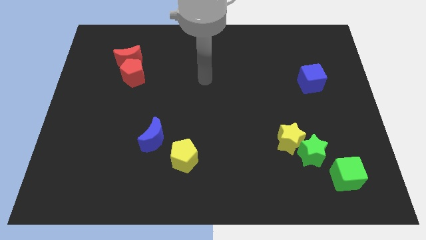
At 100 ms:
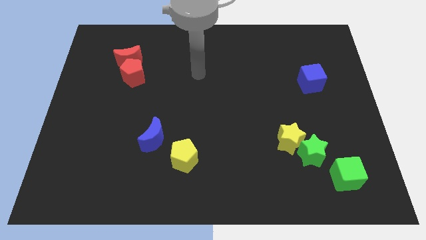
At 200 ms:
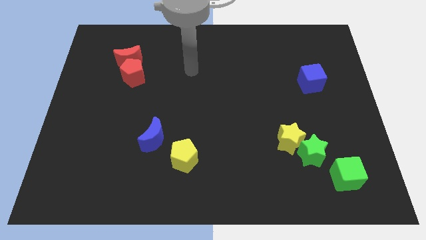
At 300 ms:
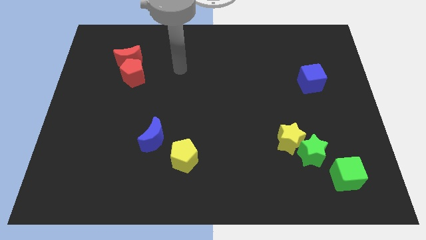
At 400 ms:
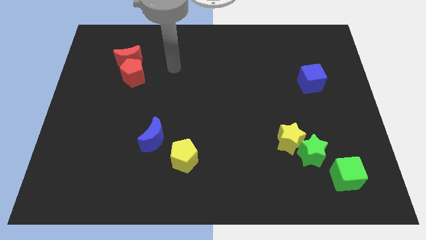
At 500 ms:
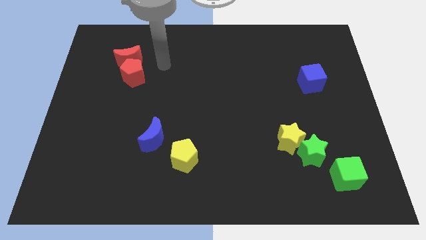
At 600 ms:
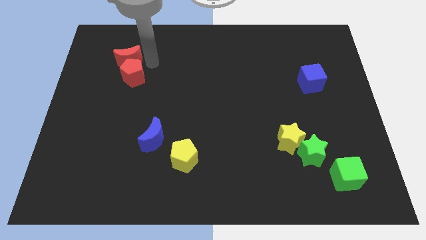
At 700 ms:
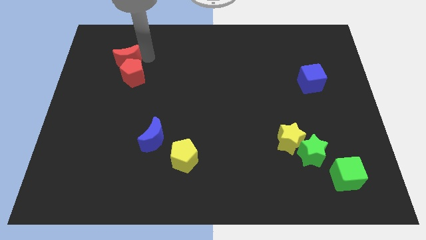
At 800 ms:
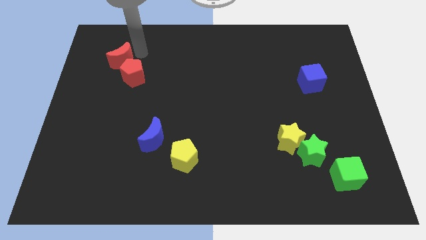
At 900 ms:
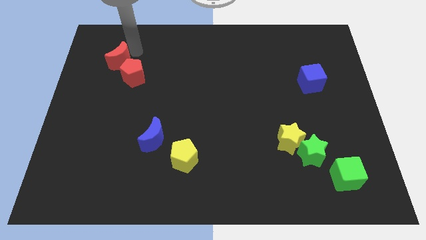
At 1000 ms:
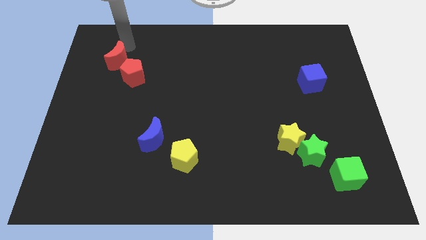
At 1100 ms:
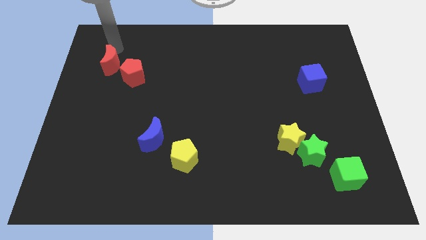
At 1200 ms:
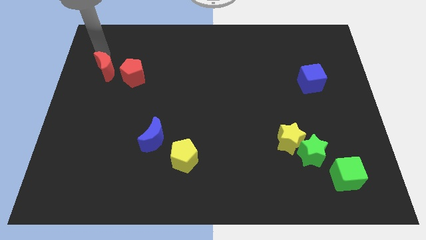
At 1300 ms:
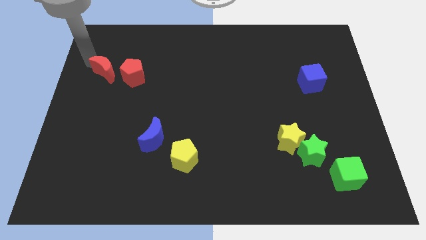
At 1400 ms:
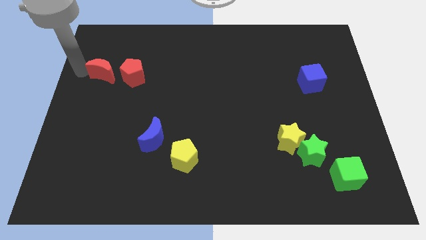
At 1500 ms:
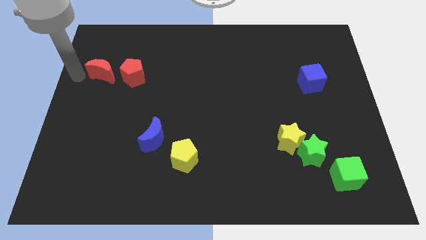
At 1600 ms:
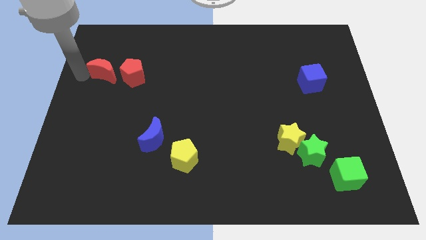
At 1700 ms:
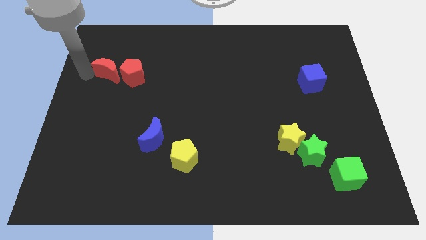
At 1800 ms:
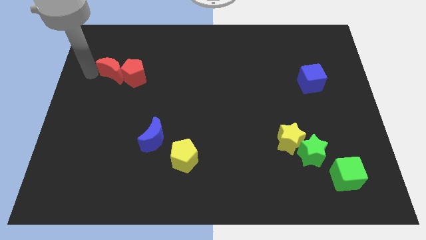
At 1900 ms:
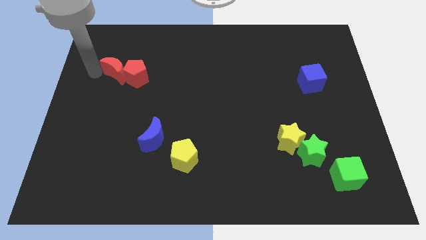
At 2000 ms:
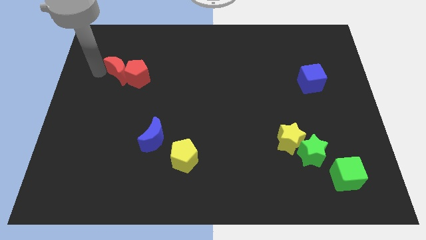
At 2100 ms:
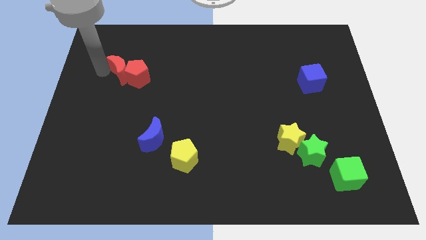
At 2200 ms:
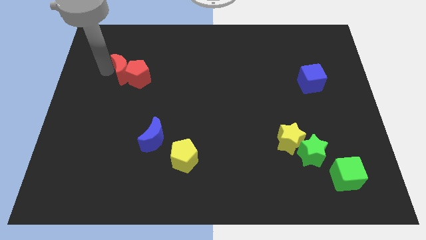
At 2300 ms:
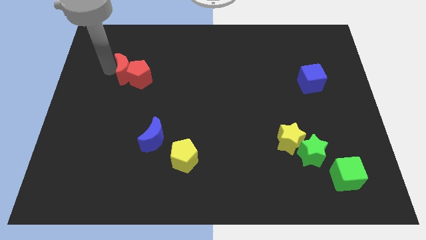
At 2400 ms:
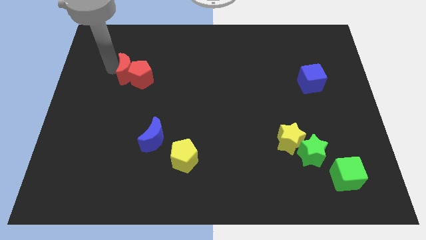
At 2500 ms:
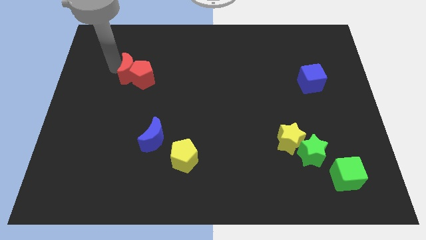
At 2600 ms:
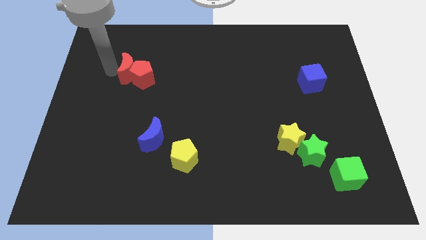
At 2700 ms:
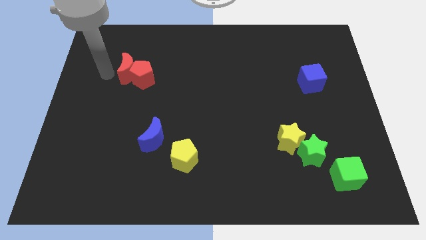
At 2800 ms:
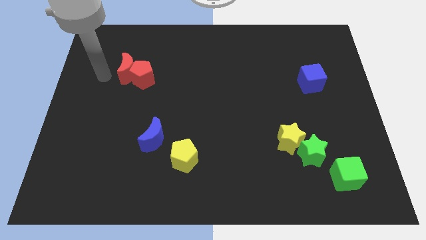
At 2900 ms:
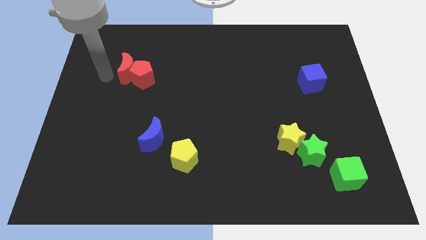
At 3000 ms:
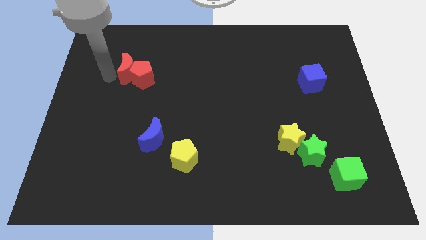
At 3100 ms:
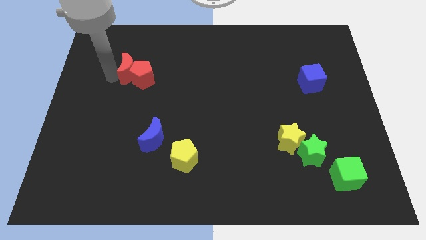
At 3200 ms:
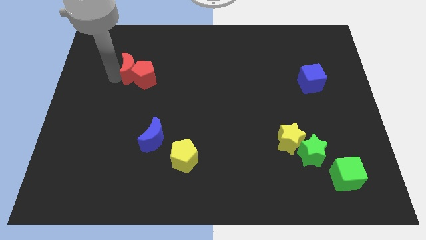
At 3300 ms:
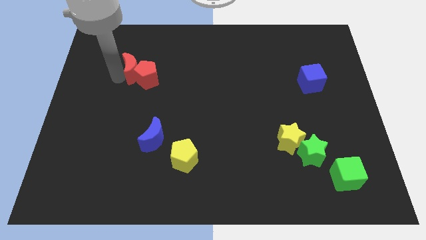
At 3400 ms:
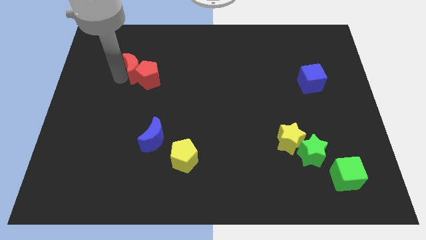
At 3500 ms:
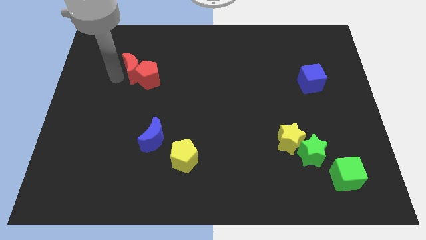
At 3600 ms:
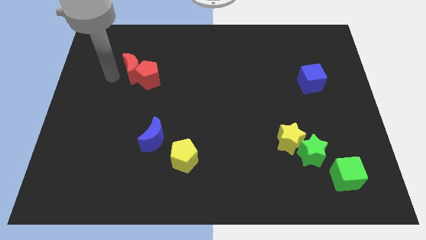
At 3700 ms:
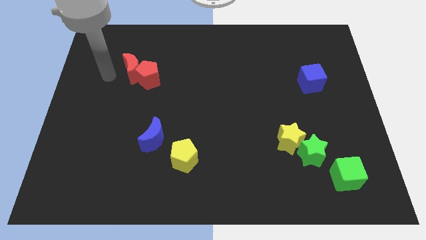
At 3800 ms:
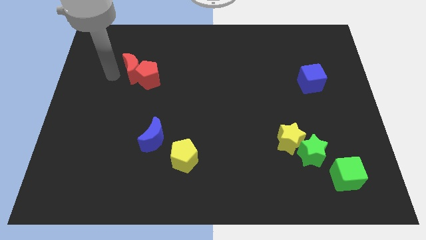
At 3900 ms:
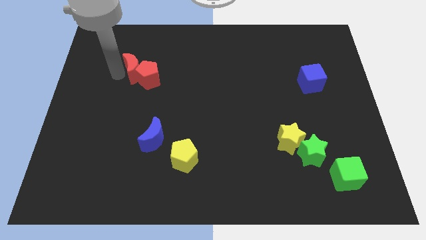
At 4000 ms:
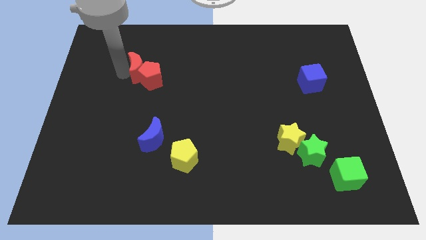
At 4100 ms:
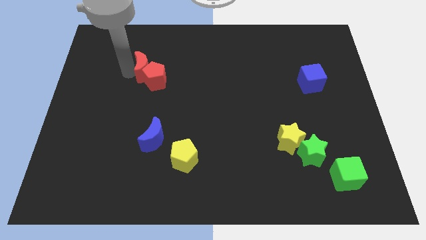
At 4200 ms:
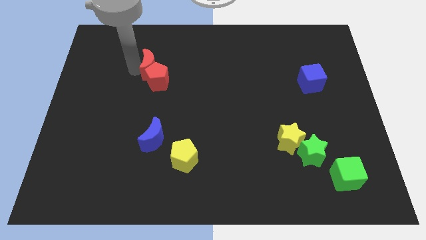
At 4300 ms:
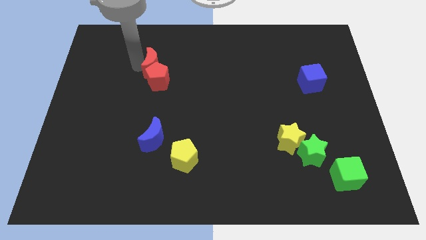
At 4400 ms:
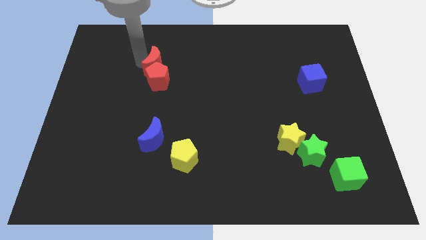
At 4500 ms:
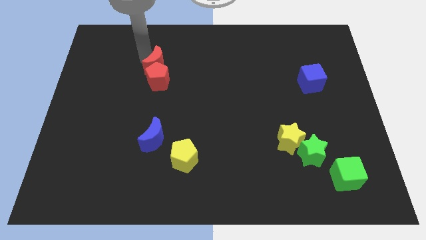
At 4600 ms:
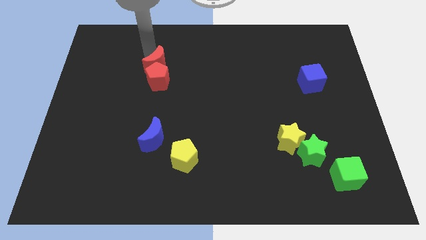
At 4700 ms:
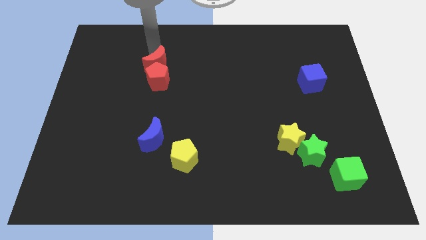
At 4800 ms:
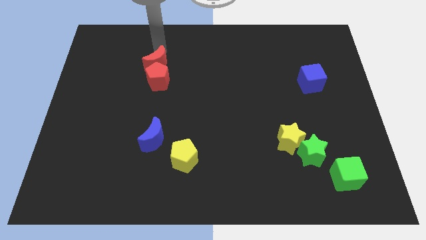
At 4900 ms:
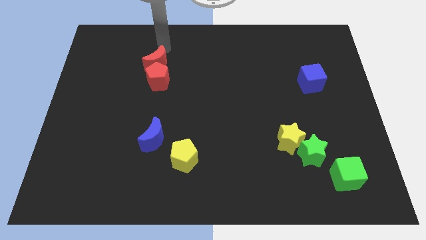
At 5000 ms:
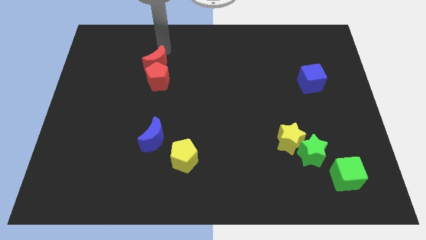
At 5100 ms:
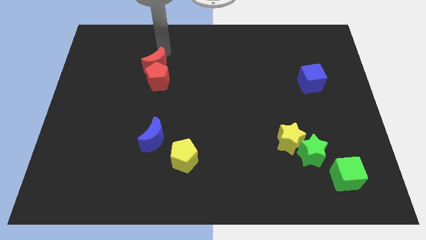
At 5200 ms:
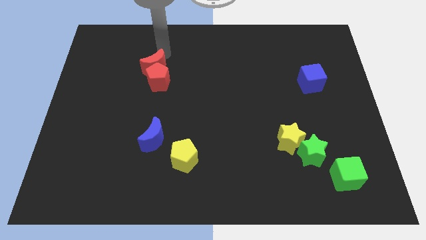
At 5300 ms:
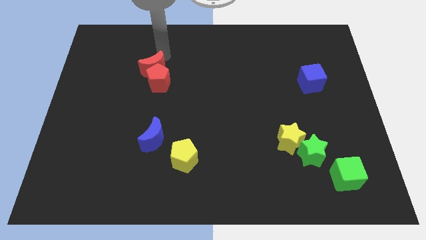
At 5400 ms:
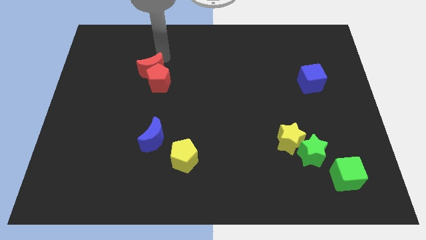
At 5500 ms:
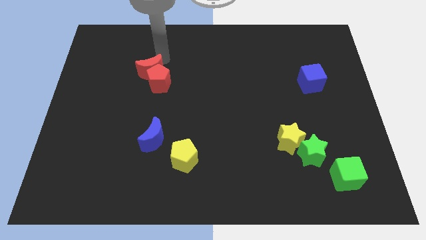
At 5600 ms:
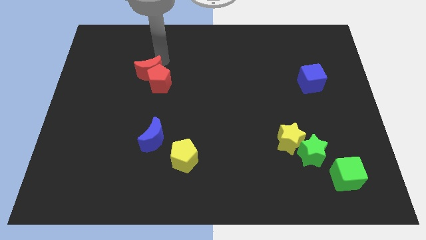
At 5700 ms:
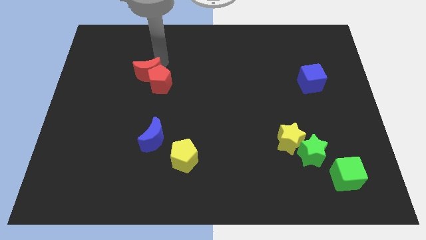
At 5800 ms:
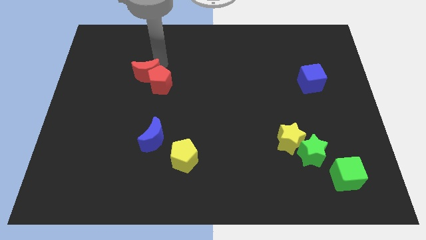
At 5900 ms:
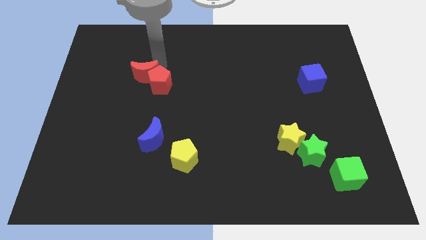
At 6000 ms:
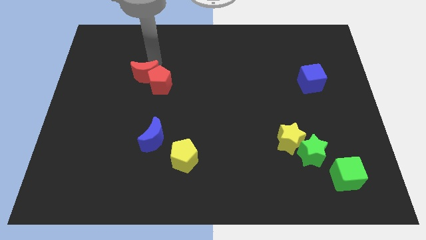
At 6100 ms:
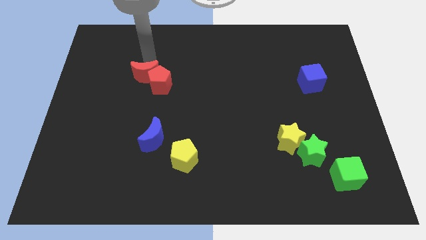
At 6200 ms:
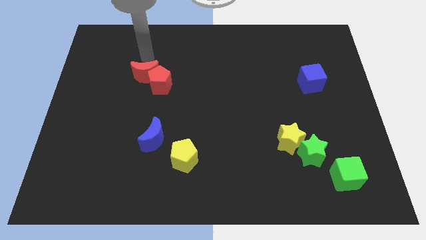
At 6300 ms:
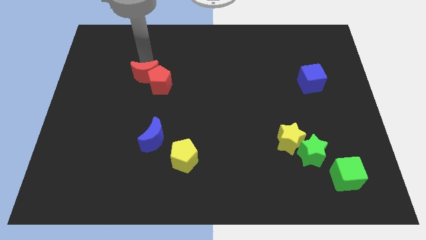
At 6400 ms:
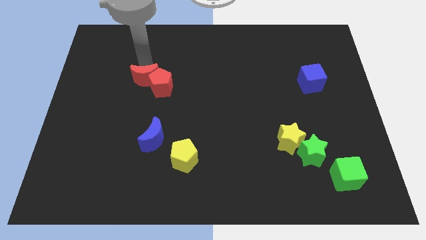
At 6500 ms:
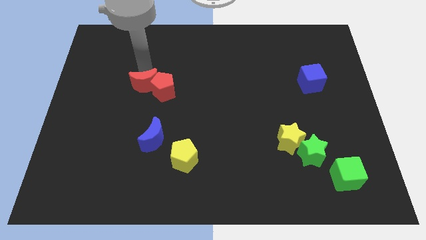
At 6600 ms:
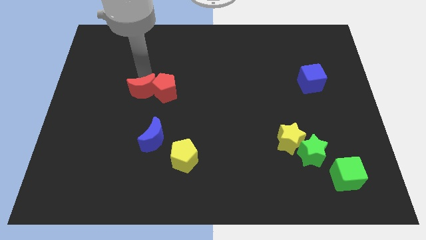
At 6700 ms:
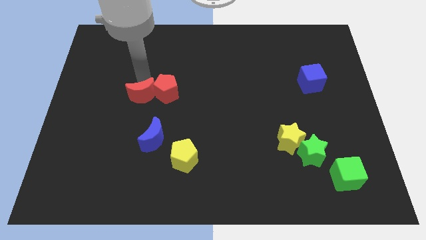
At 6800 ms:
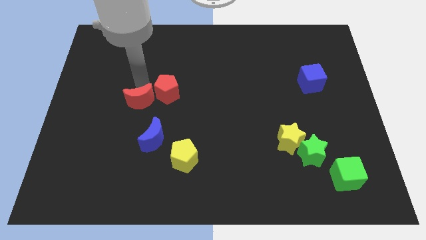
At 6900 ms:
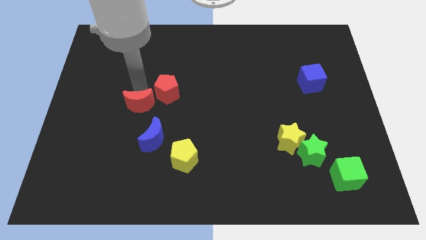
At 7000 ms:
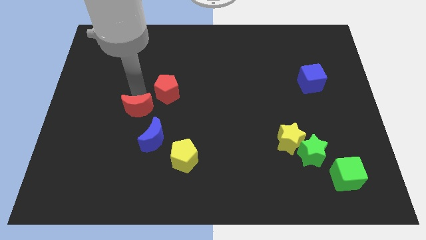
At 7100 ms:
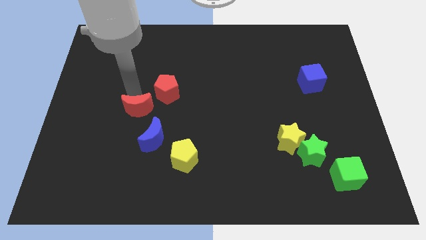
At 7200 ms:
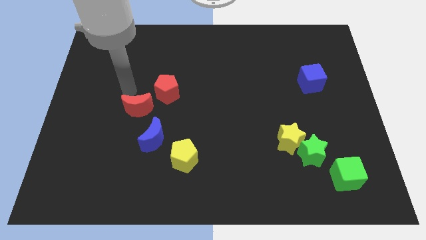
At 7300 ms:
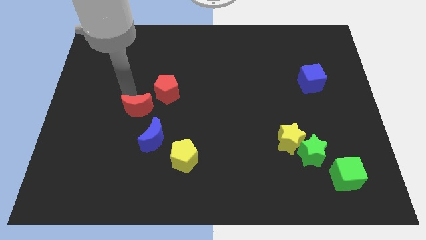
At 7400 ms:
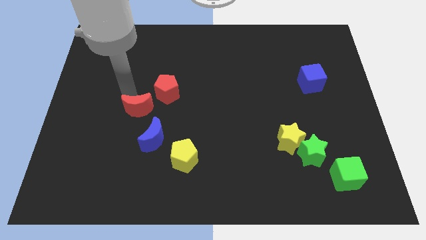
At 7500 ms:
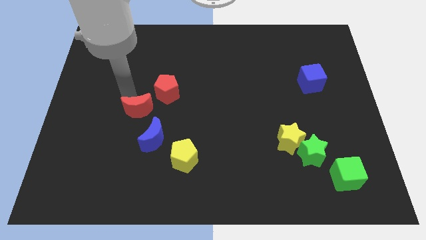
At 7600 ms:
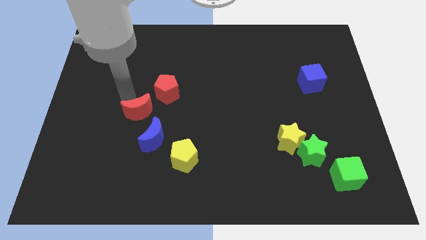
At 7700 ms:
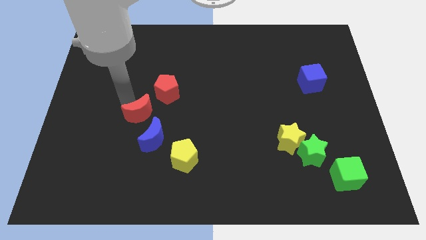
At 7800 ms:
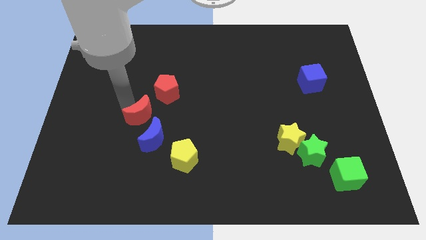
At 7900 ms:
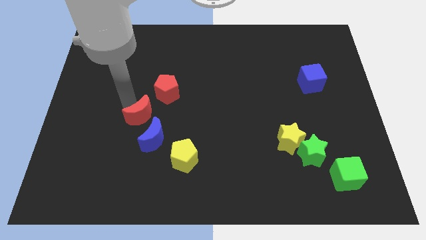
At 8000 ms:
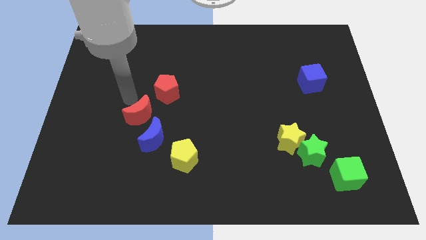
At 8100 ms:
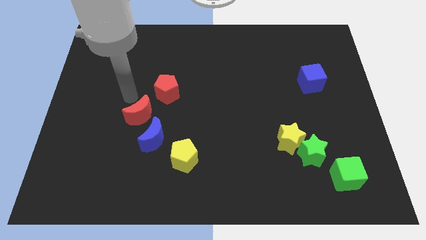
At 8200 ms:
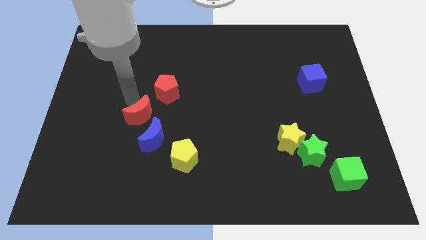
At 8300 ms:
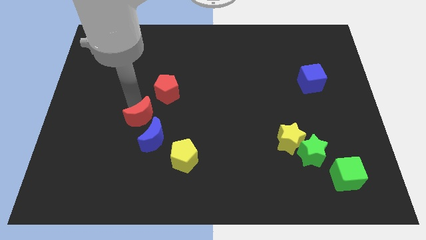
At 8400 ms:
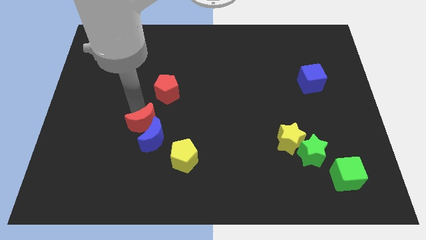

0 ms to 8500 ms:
put the red moon next to the blue moon
